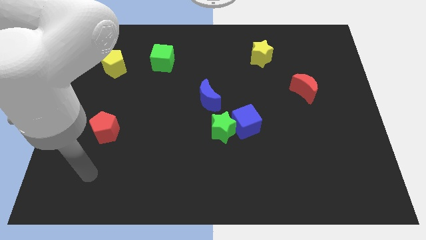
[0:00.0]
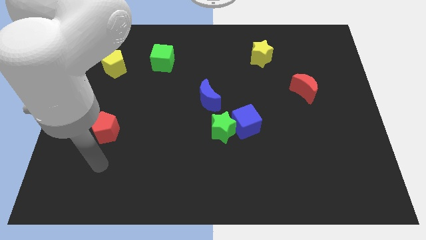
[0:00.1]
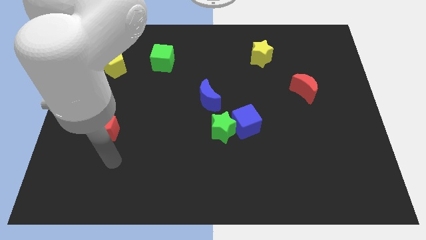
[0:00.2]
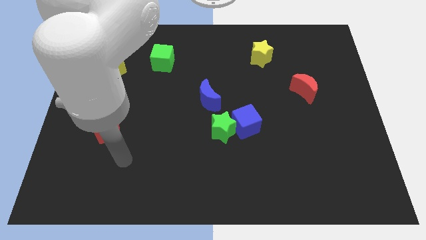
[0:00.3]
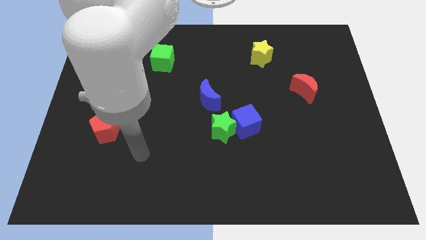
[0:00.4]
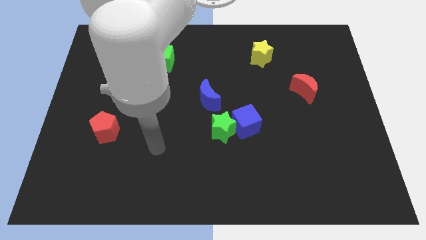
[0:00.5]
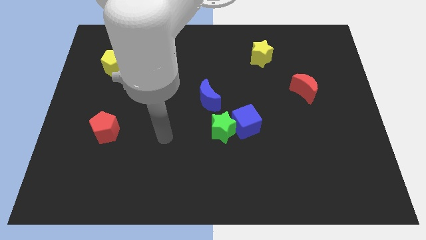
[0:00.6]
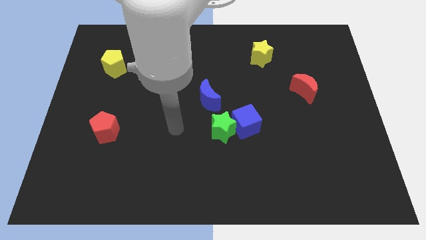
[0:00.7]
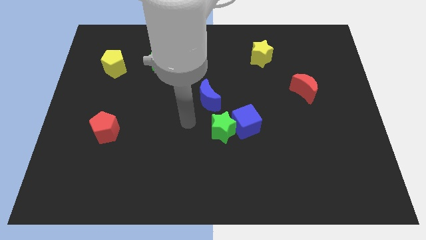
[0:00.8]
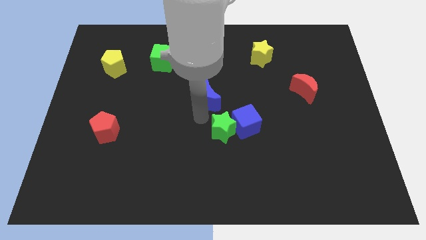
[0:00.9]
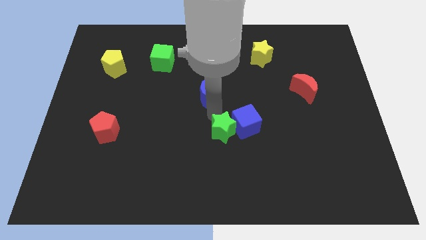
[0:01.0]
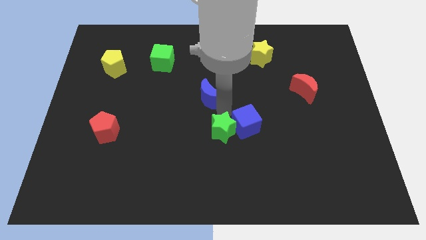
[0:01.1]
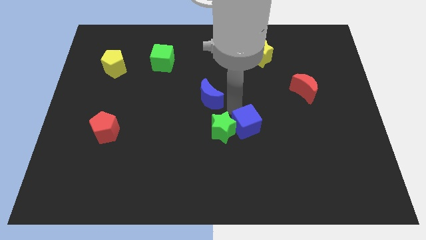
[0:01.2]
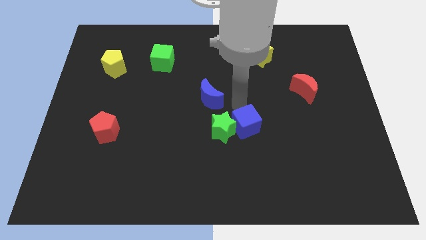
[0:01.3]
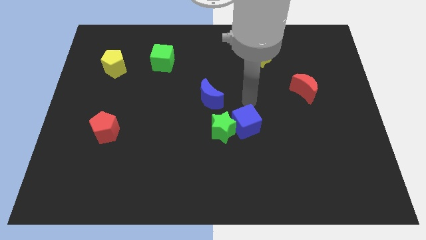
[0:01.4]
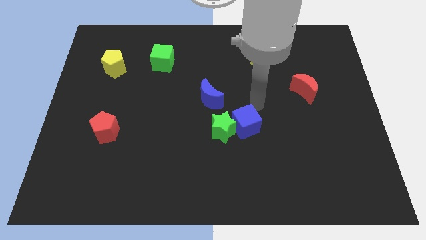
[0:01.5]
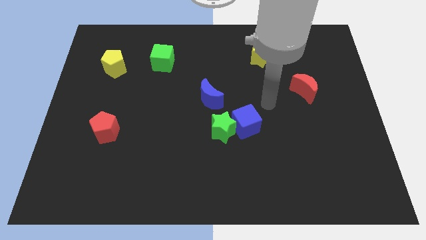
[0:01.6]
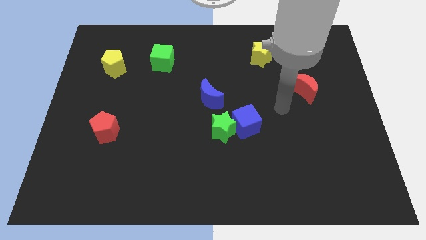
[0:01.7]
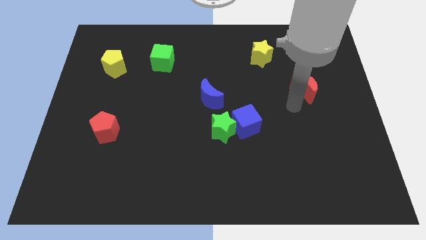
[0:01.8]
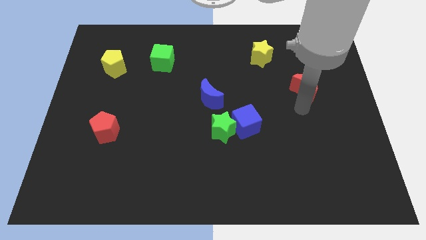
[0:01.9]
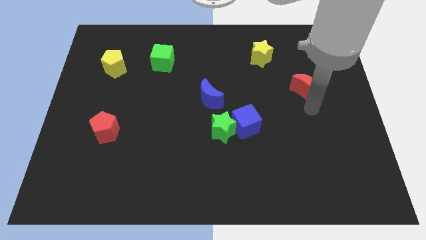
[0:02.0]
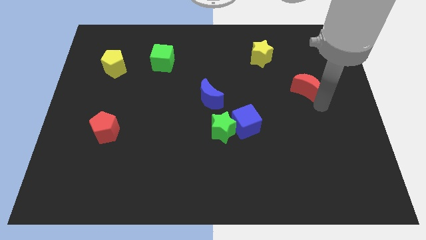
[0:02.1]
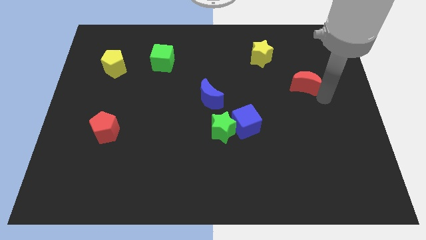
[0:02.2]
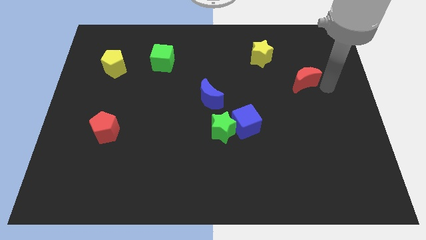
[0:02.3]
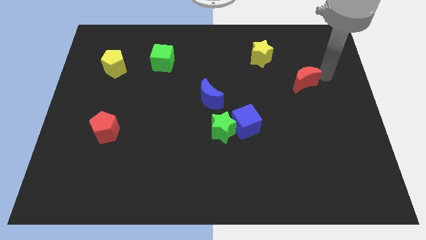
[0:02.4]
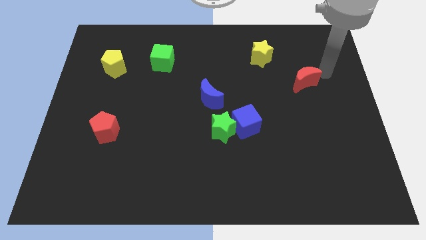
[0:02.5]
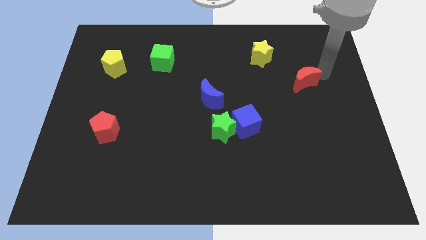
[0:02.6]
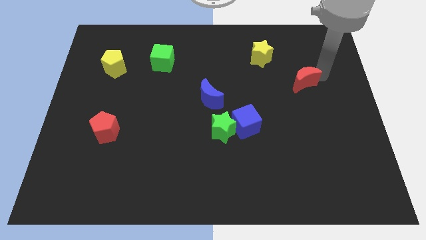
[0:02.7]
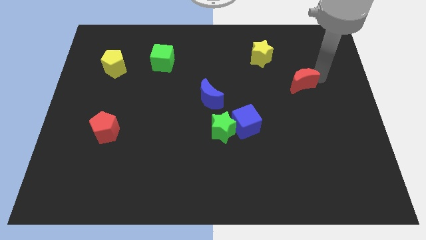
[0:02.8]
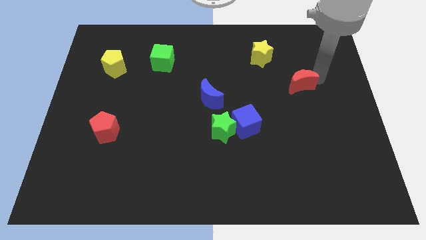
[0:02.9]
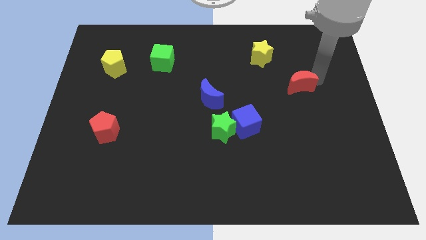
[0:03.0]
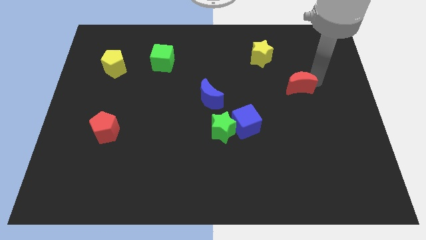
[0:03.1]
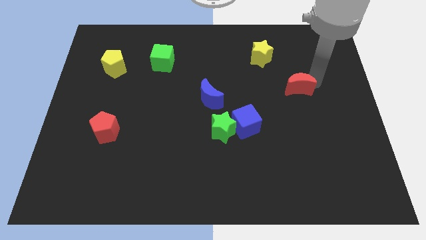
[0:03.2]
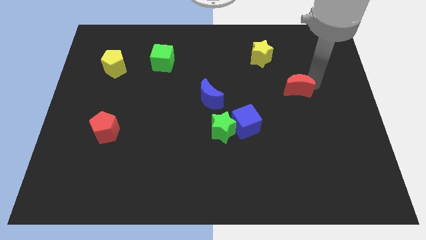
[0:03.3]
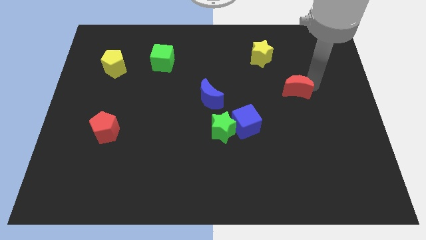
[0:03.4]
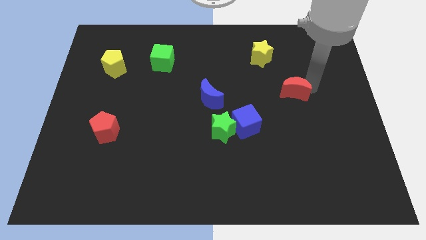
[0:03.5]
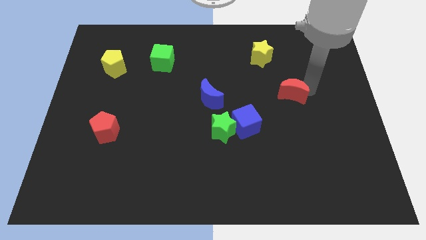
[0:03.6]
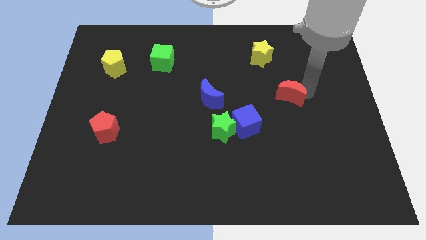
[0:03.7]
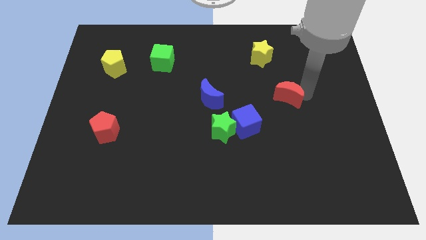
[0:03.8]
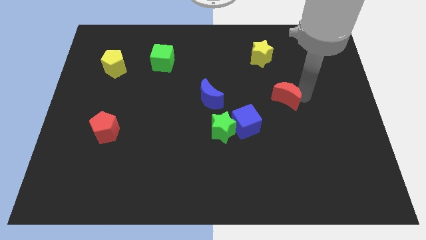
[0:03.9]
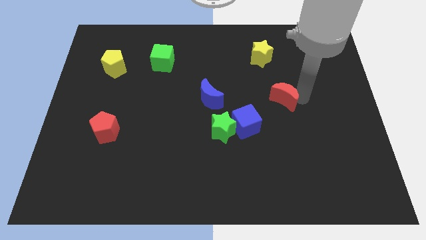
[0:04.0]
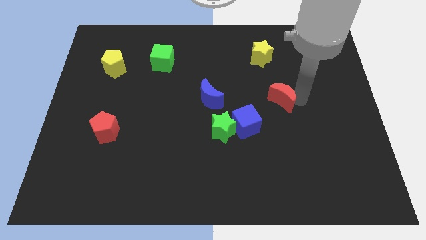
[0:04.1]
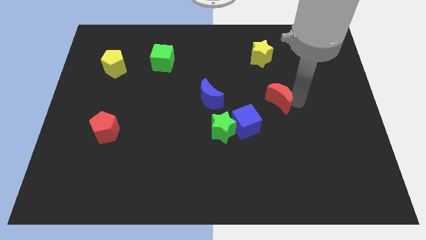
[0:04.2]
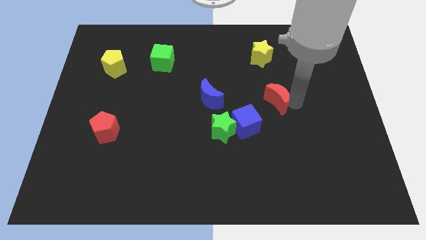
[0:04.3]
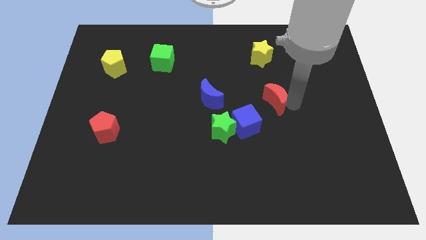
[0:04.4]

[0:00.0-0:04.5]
move the red moon a bit left

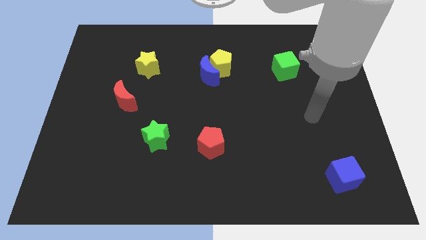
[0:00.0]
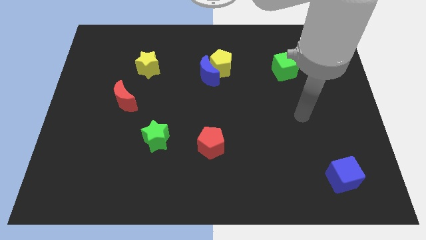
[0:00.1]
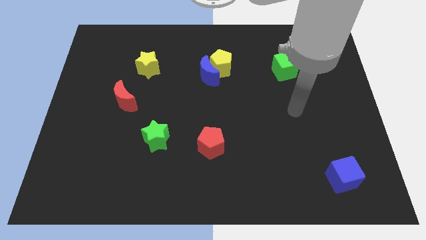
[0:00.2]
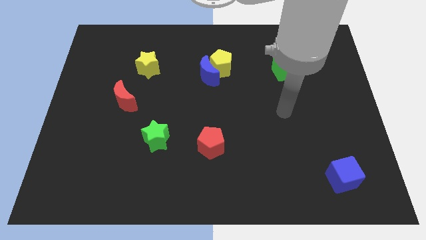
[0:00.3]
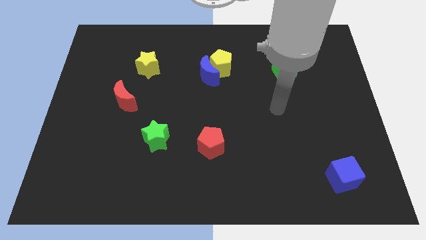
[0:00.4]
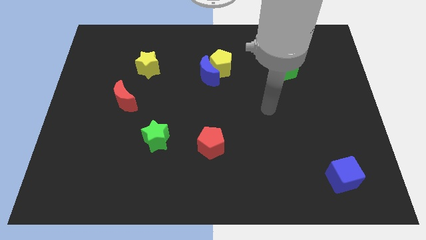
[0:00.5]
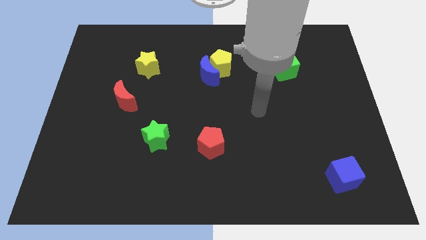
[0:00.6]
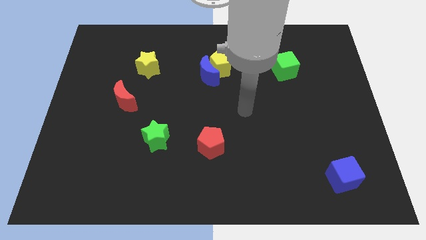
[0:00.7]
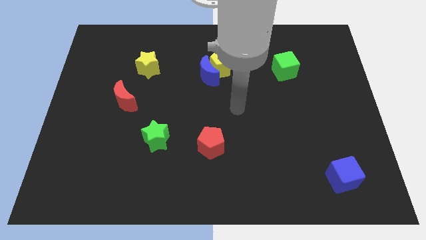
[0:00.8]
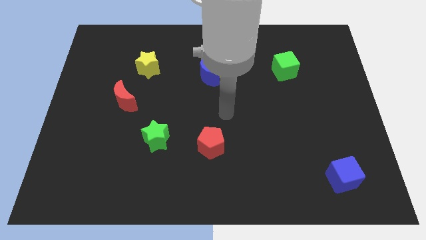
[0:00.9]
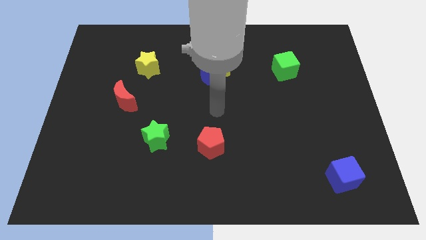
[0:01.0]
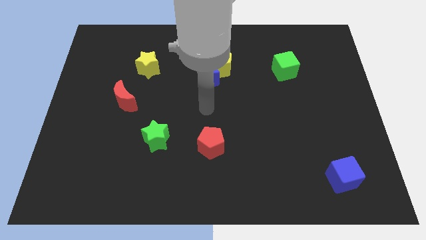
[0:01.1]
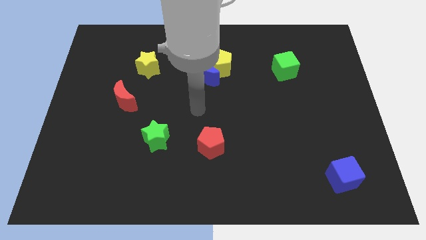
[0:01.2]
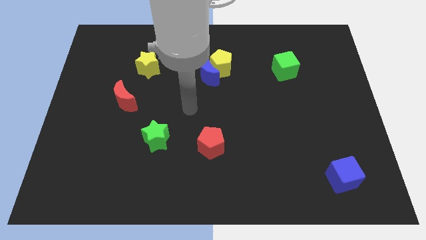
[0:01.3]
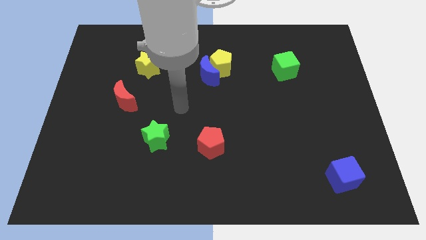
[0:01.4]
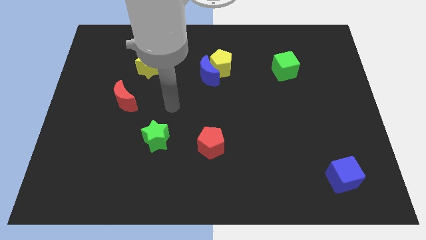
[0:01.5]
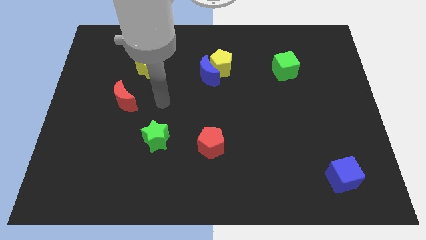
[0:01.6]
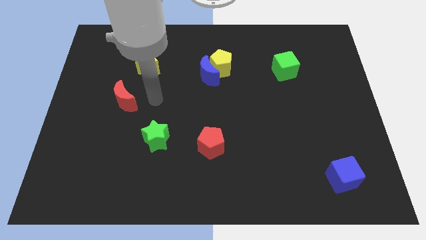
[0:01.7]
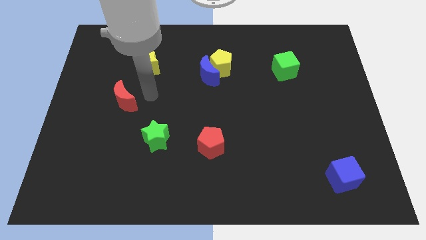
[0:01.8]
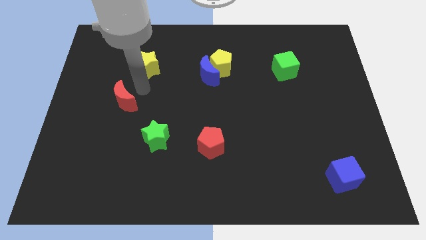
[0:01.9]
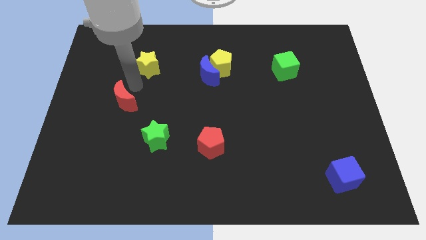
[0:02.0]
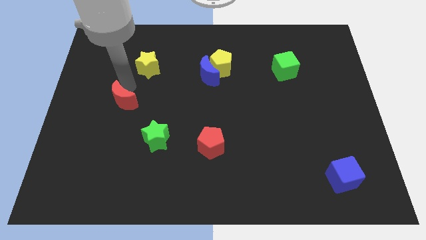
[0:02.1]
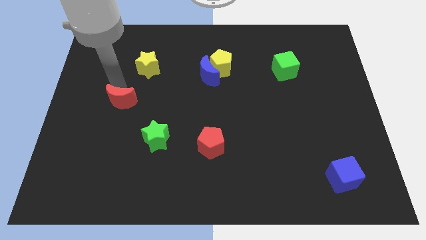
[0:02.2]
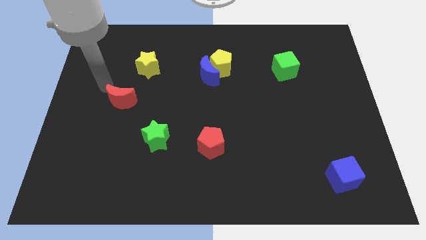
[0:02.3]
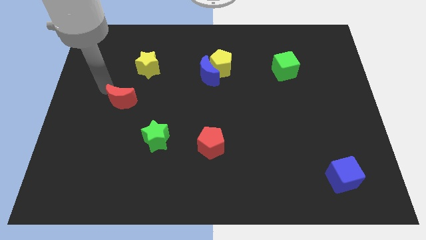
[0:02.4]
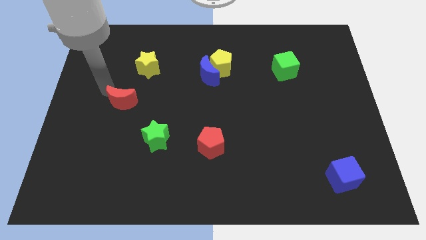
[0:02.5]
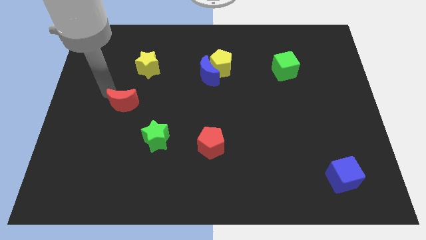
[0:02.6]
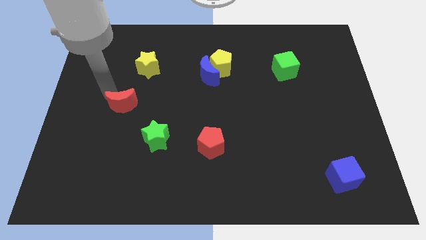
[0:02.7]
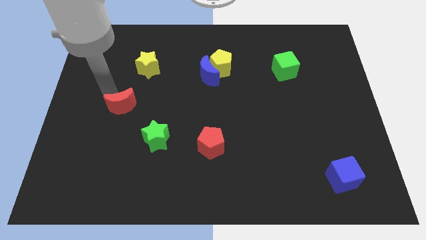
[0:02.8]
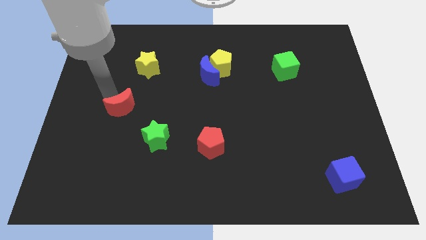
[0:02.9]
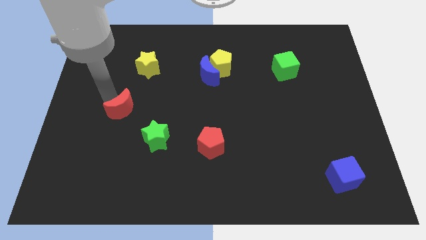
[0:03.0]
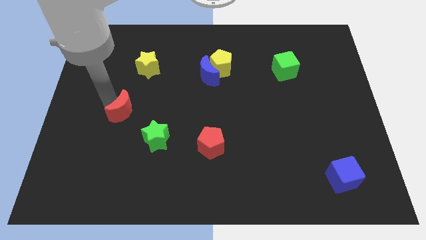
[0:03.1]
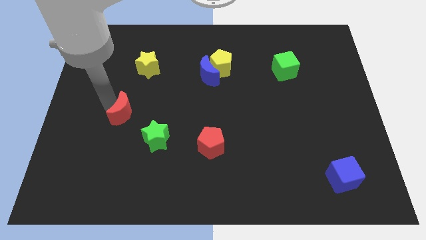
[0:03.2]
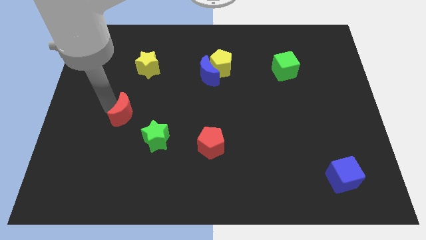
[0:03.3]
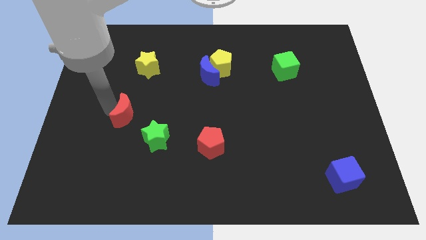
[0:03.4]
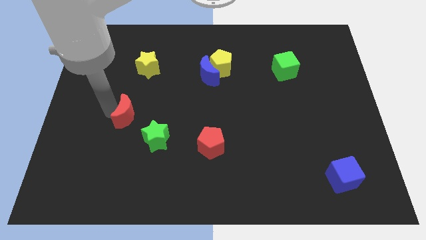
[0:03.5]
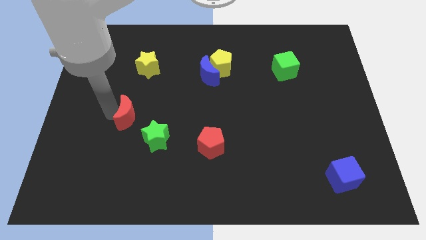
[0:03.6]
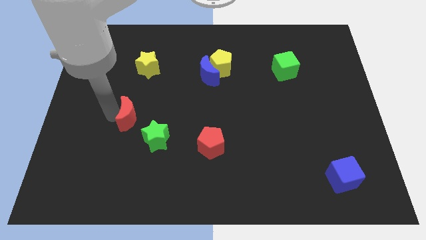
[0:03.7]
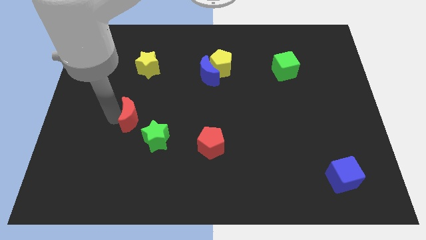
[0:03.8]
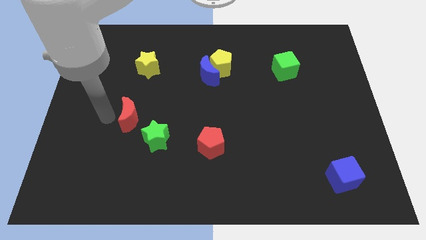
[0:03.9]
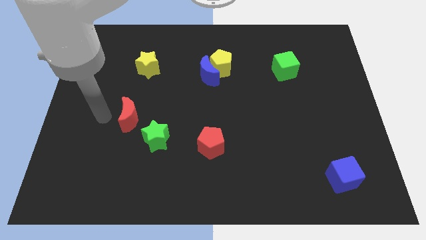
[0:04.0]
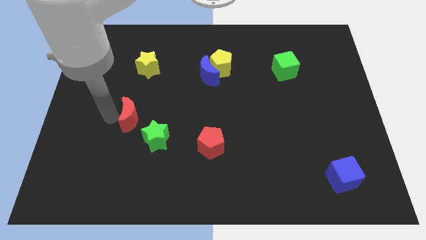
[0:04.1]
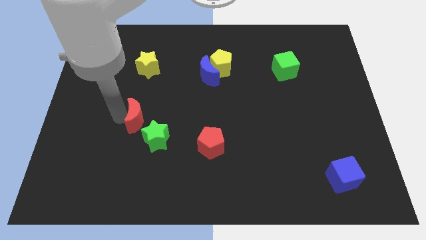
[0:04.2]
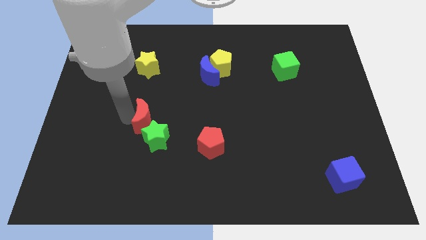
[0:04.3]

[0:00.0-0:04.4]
slightly push the red moon down and then to the right
